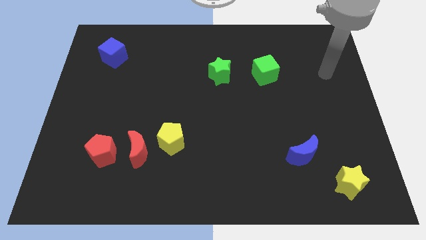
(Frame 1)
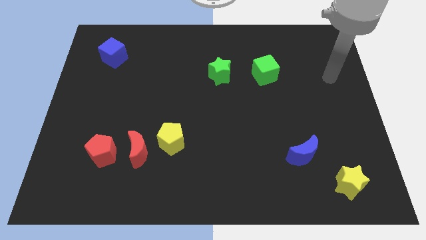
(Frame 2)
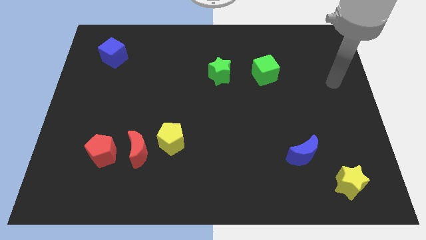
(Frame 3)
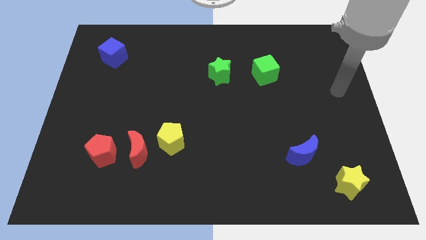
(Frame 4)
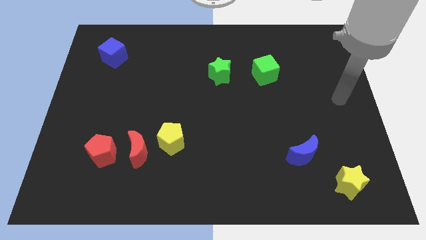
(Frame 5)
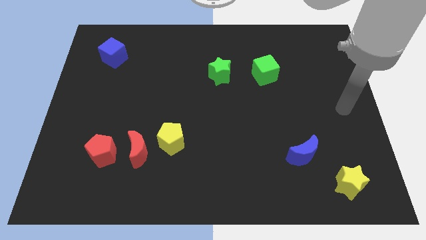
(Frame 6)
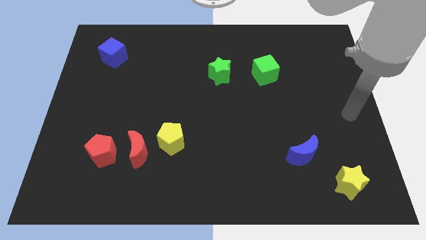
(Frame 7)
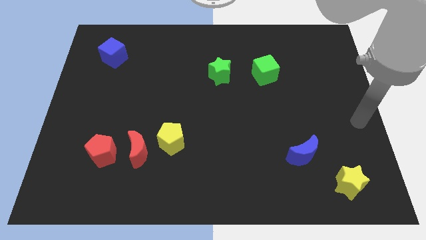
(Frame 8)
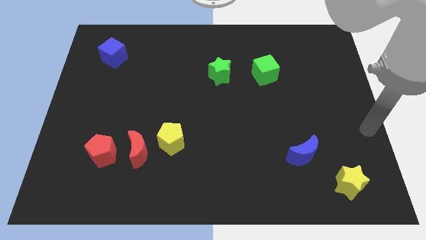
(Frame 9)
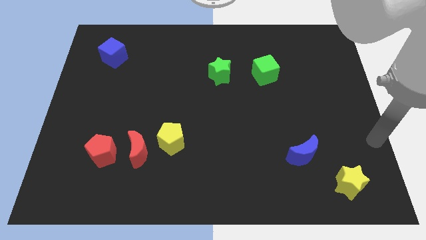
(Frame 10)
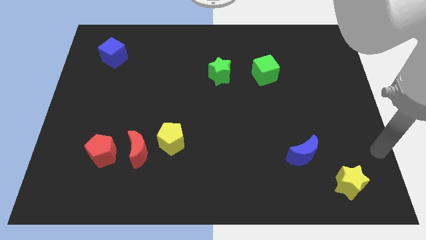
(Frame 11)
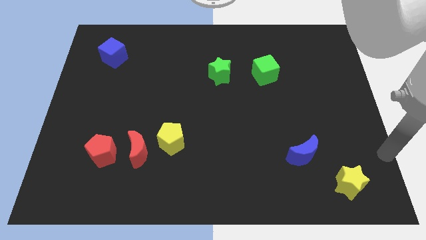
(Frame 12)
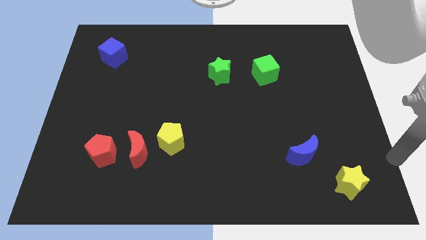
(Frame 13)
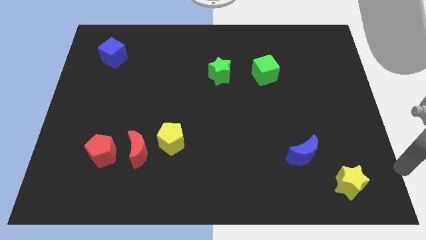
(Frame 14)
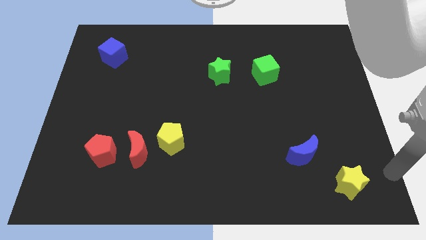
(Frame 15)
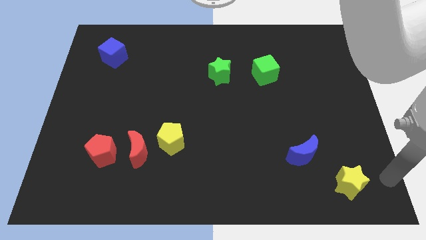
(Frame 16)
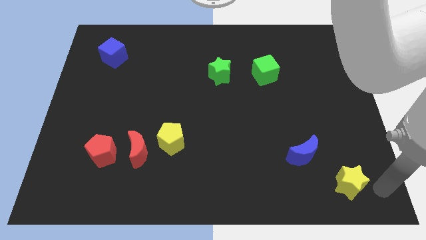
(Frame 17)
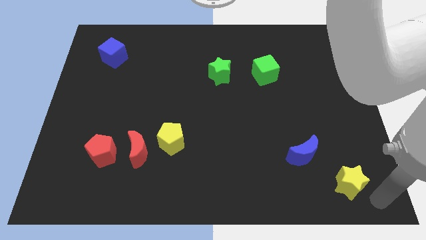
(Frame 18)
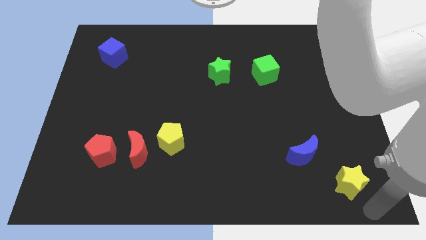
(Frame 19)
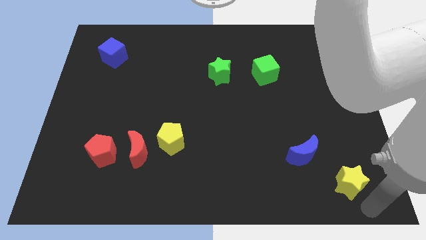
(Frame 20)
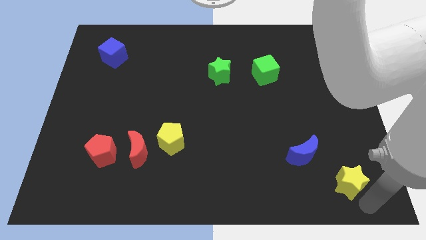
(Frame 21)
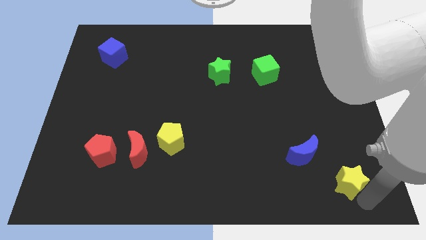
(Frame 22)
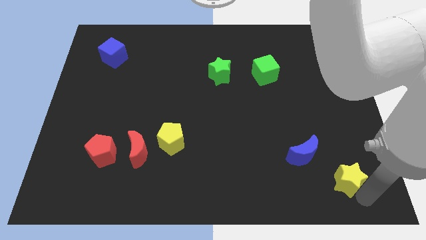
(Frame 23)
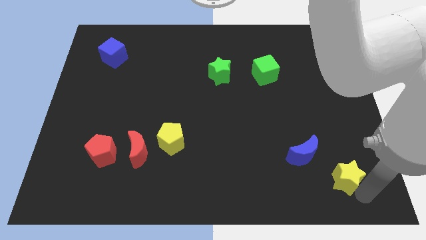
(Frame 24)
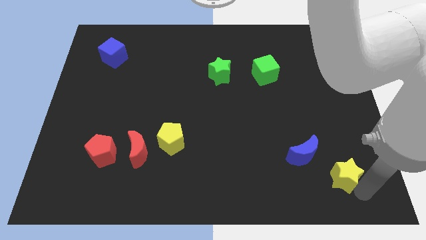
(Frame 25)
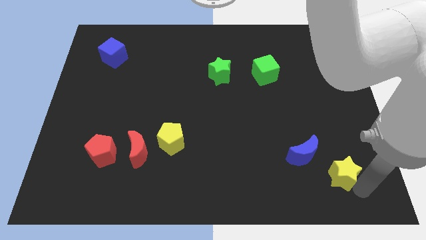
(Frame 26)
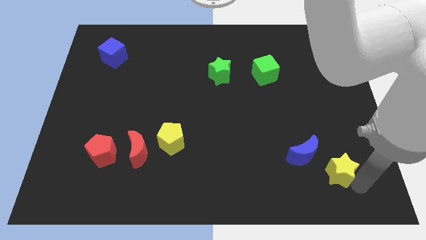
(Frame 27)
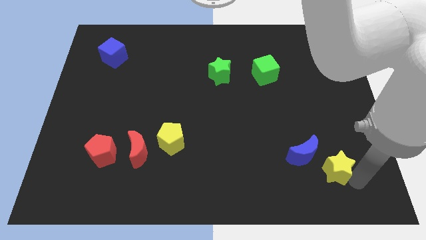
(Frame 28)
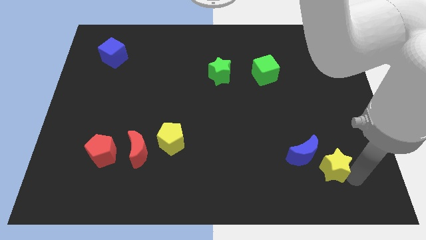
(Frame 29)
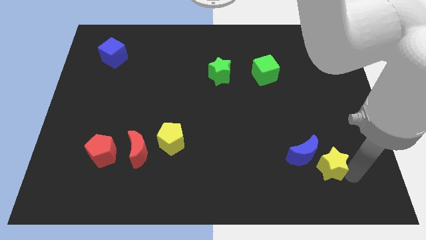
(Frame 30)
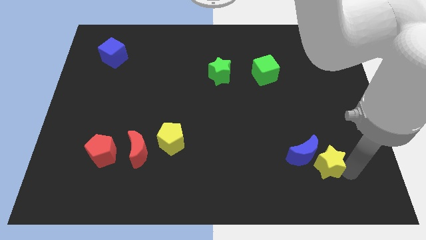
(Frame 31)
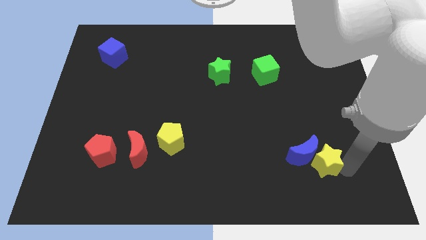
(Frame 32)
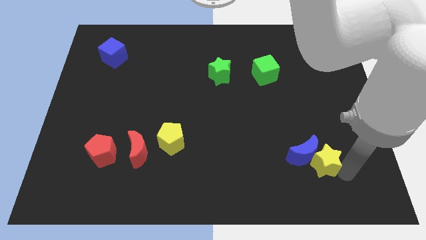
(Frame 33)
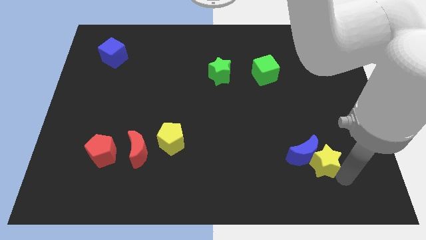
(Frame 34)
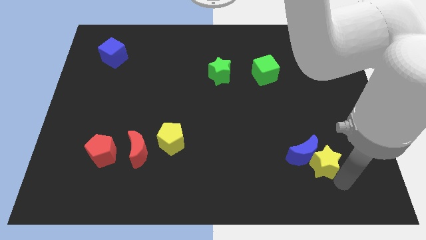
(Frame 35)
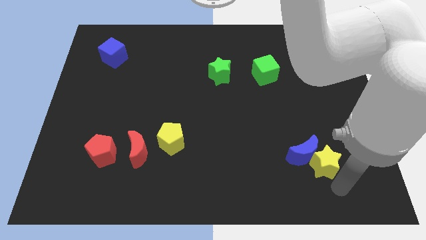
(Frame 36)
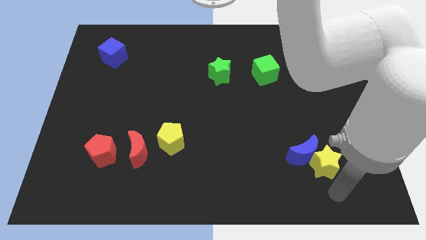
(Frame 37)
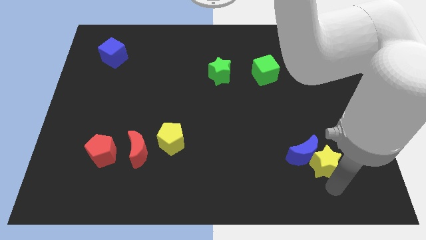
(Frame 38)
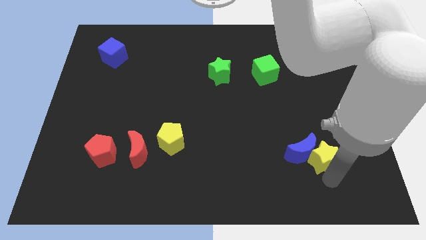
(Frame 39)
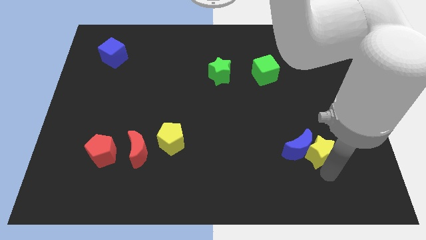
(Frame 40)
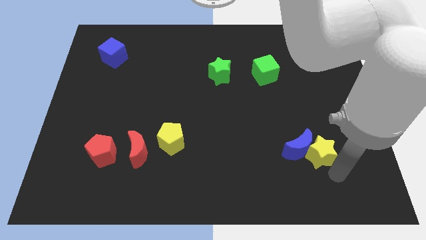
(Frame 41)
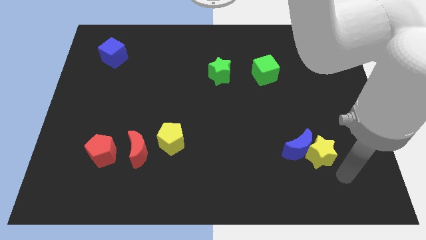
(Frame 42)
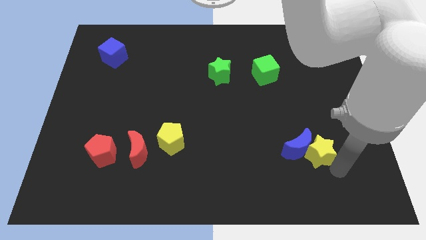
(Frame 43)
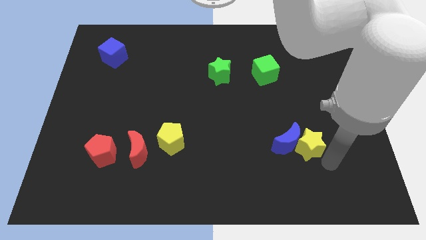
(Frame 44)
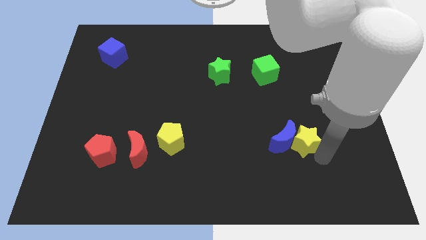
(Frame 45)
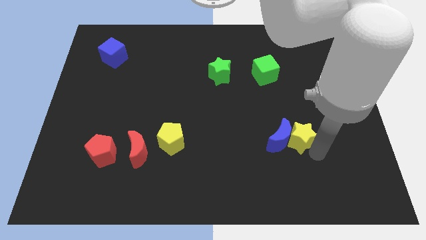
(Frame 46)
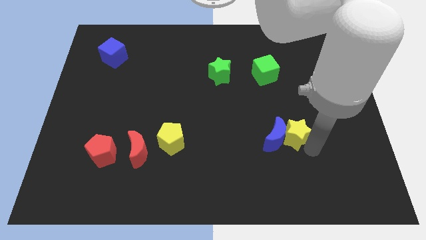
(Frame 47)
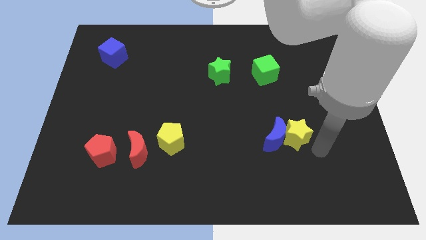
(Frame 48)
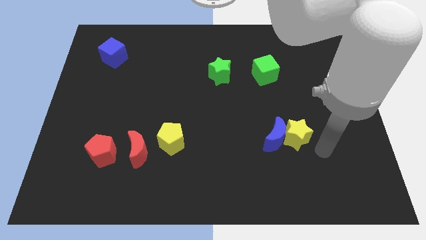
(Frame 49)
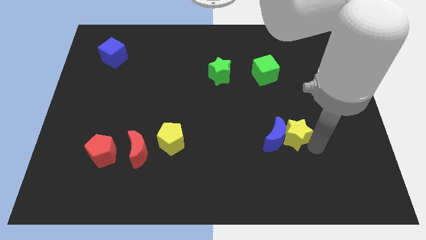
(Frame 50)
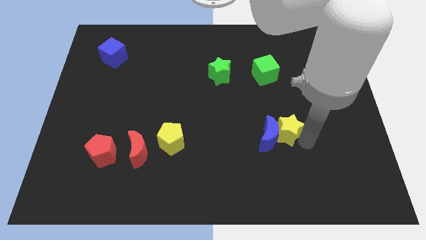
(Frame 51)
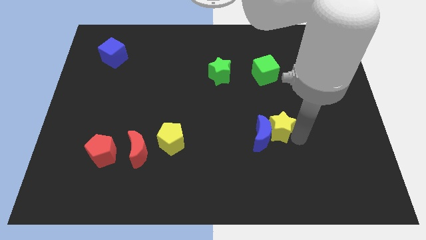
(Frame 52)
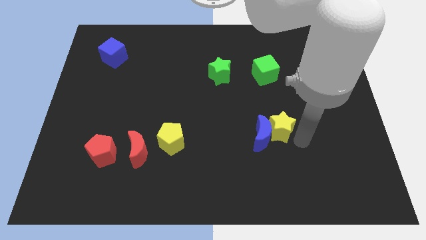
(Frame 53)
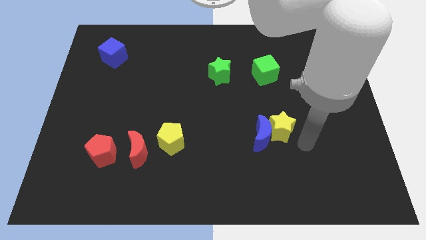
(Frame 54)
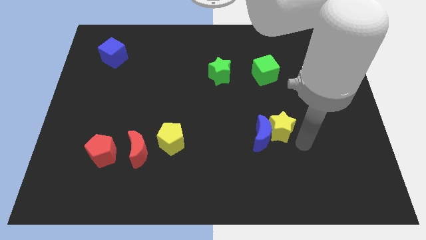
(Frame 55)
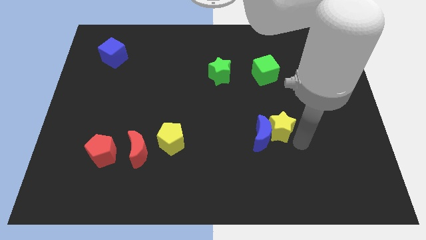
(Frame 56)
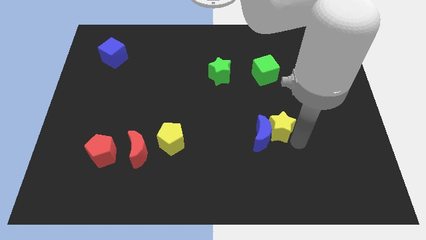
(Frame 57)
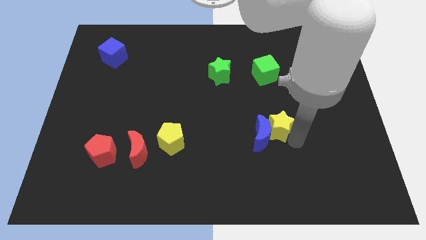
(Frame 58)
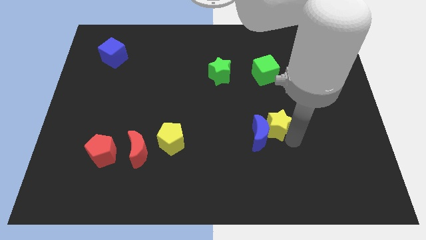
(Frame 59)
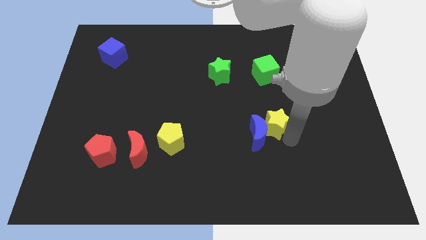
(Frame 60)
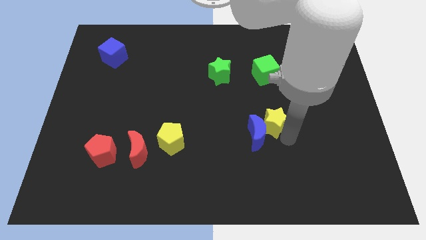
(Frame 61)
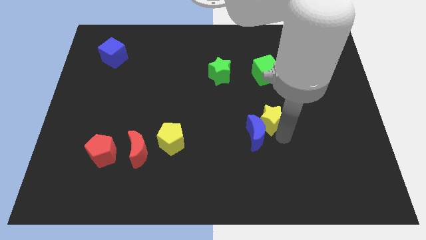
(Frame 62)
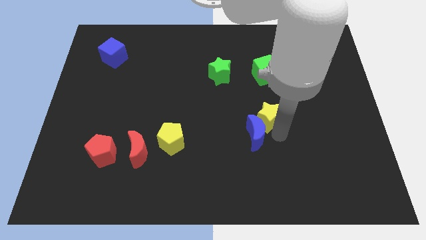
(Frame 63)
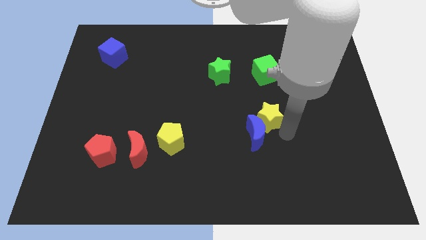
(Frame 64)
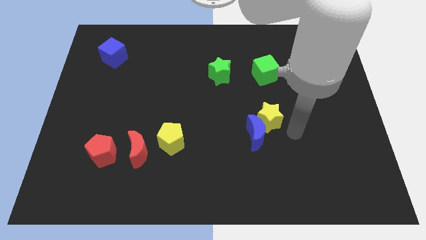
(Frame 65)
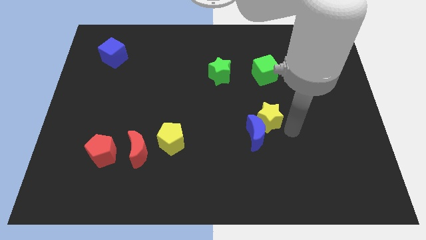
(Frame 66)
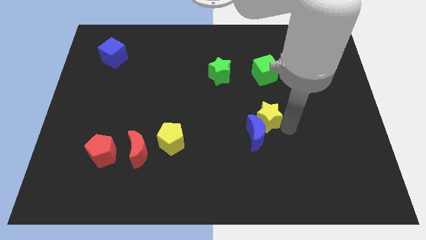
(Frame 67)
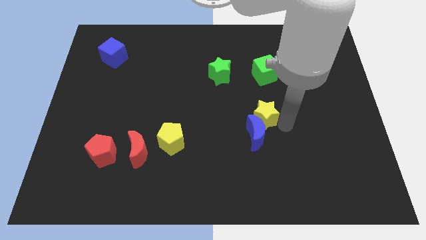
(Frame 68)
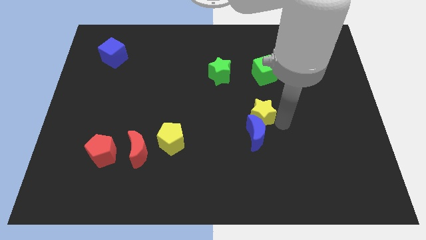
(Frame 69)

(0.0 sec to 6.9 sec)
put the yellow star to the middle of the board
